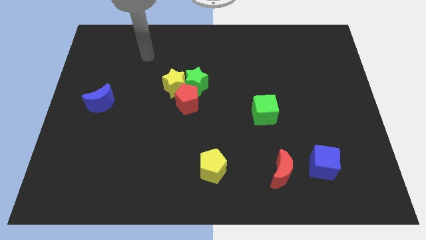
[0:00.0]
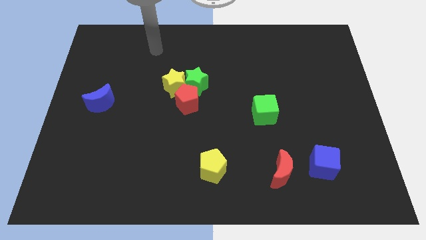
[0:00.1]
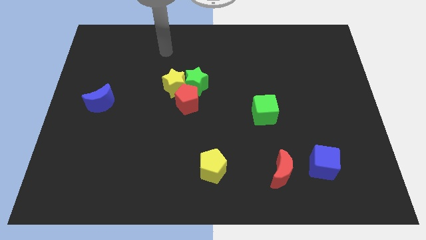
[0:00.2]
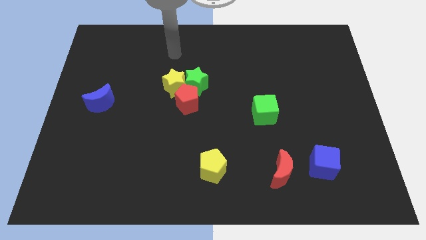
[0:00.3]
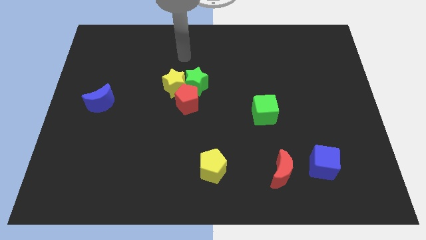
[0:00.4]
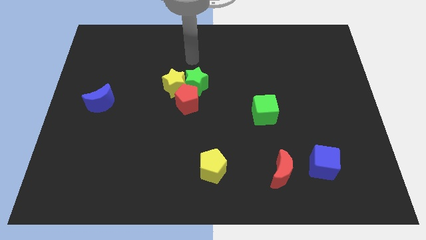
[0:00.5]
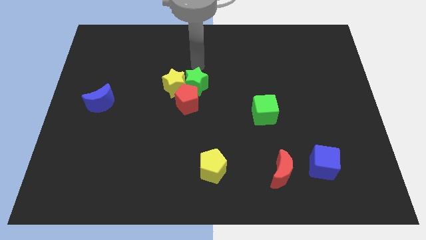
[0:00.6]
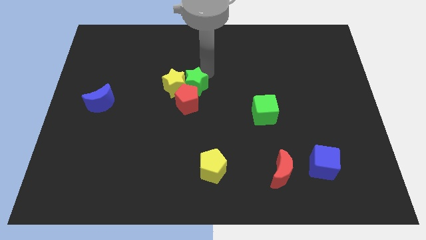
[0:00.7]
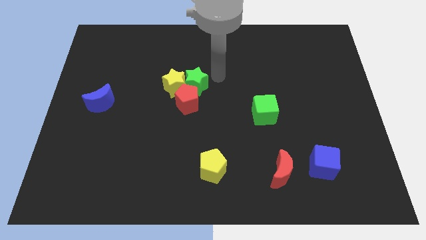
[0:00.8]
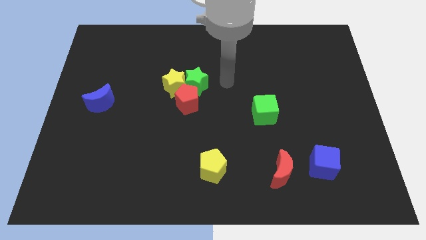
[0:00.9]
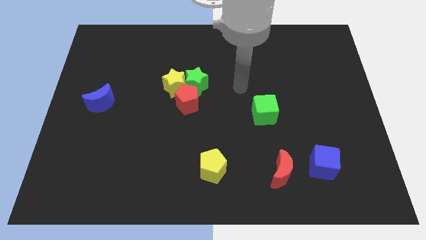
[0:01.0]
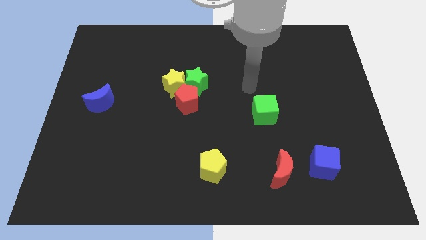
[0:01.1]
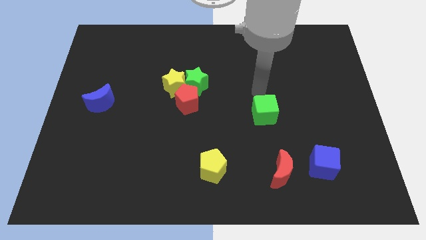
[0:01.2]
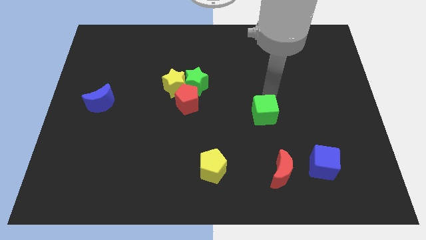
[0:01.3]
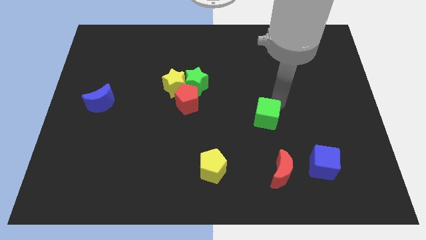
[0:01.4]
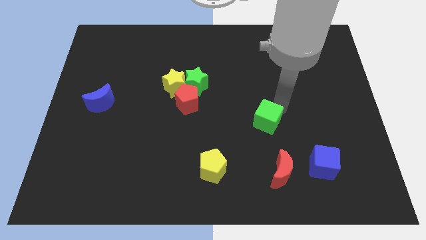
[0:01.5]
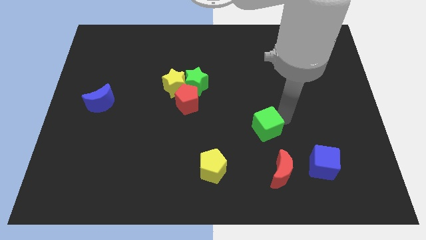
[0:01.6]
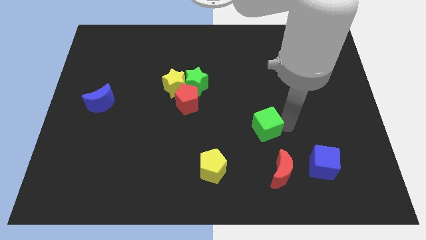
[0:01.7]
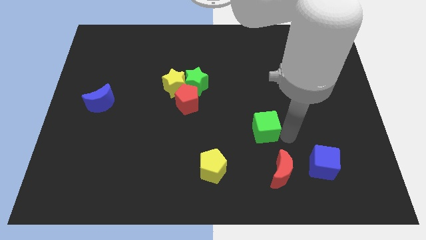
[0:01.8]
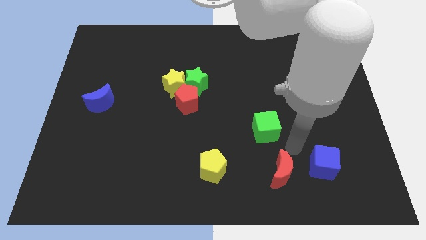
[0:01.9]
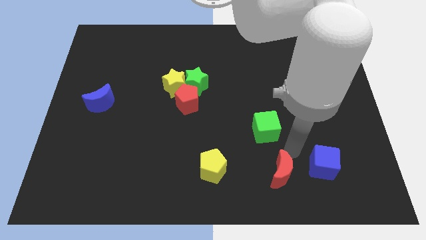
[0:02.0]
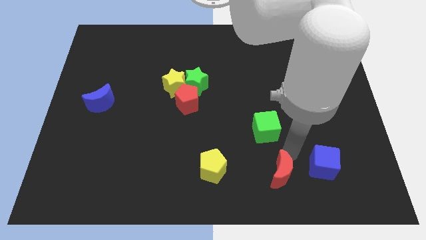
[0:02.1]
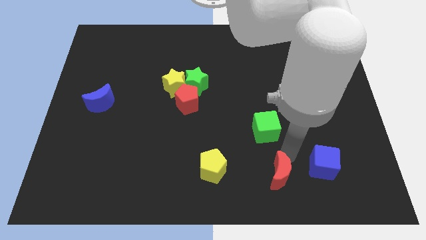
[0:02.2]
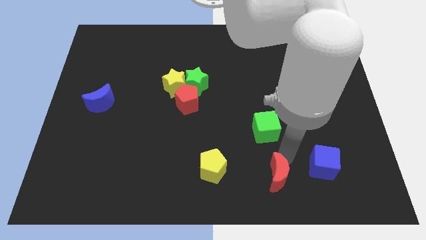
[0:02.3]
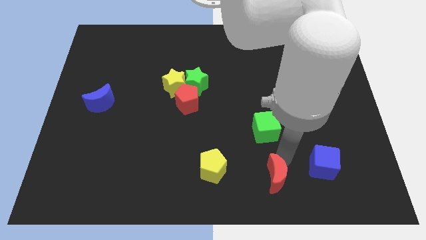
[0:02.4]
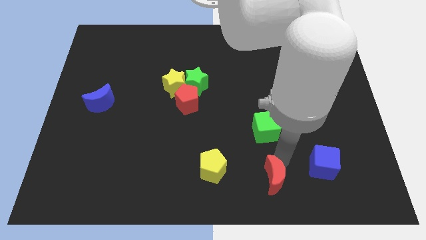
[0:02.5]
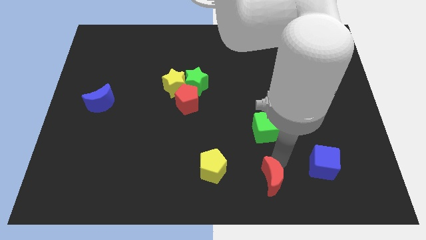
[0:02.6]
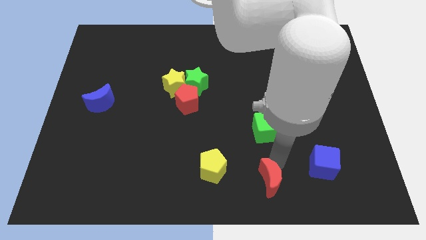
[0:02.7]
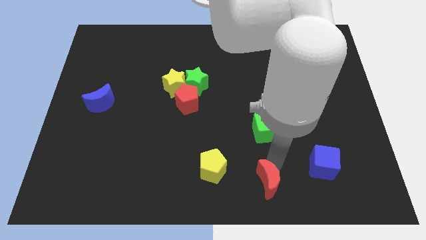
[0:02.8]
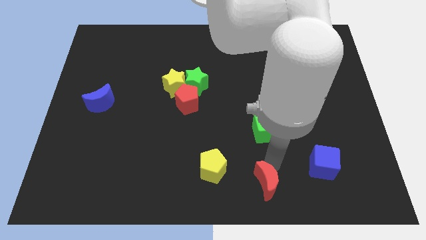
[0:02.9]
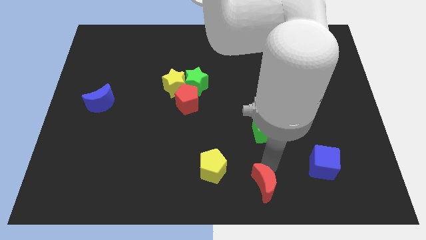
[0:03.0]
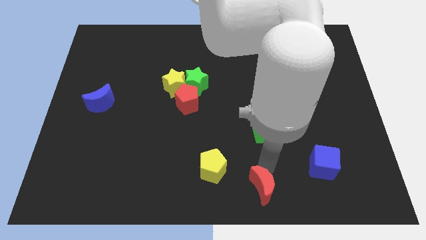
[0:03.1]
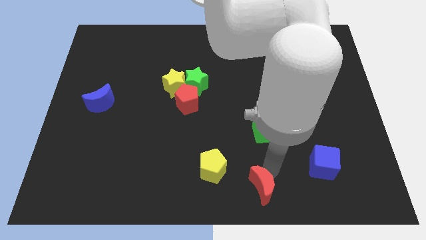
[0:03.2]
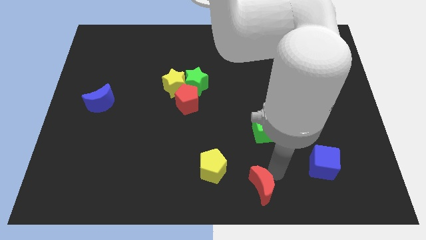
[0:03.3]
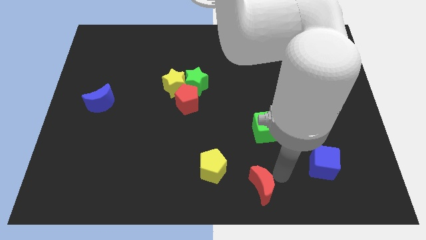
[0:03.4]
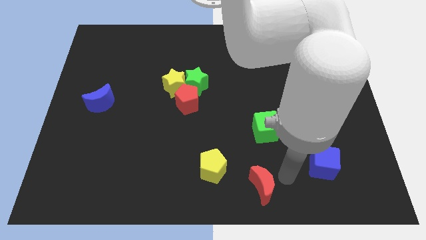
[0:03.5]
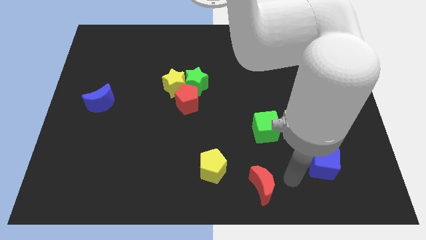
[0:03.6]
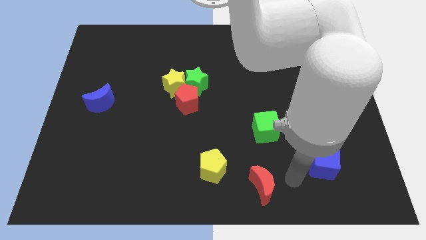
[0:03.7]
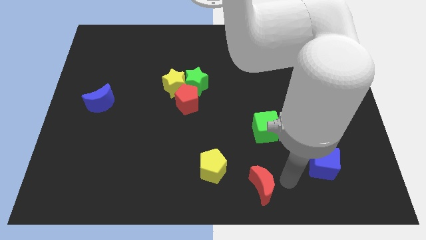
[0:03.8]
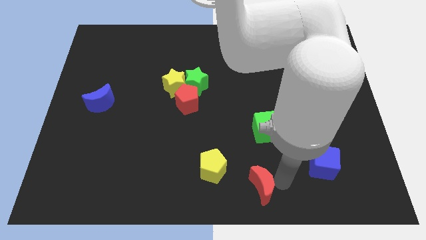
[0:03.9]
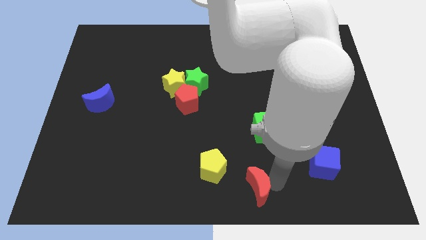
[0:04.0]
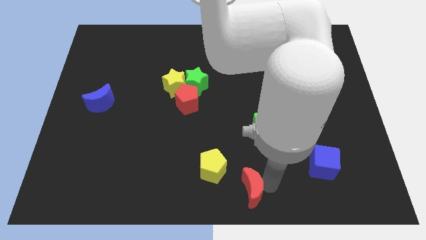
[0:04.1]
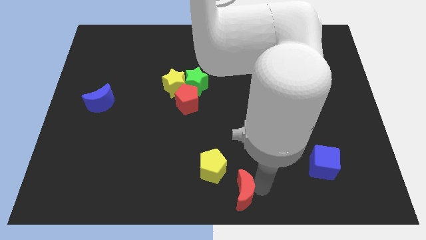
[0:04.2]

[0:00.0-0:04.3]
slightly move the red moon to the left

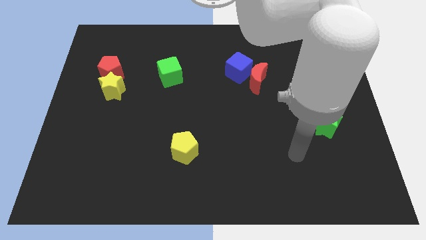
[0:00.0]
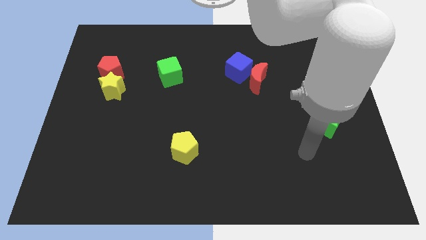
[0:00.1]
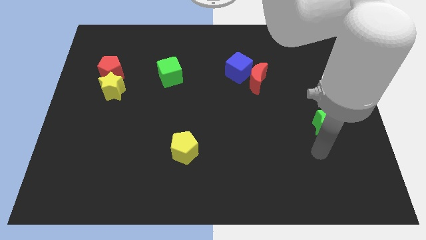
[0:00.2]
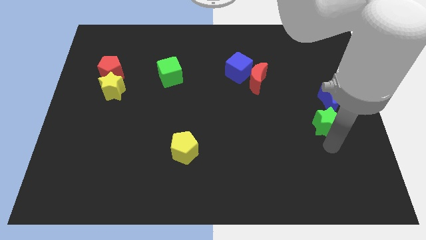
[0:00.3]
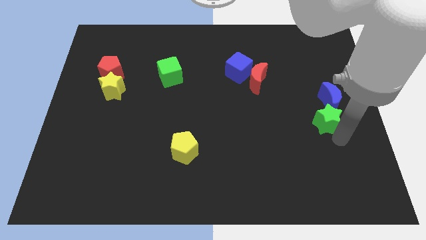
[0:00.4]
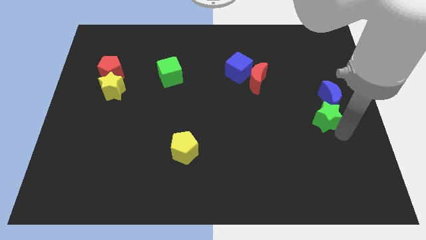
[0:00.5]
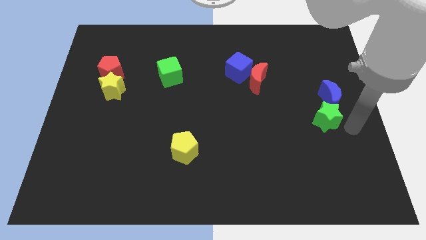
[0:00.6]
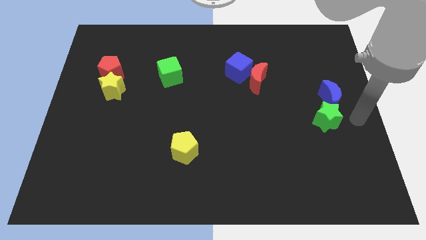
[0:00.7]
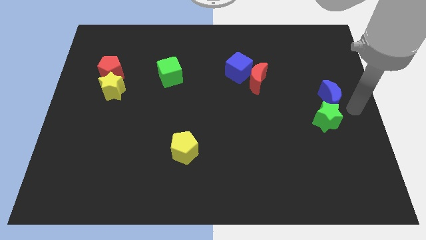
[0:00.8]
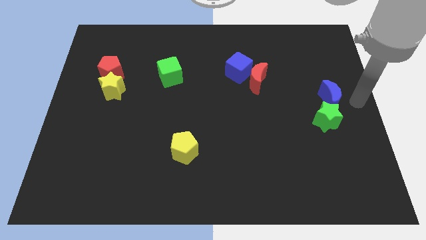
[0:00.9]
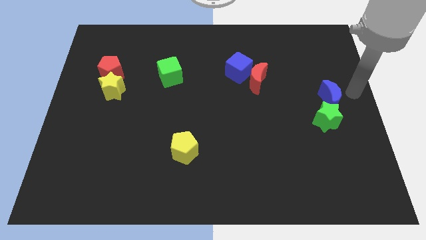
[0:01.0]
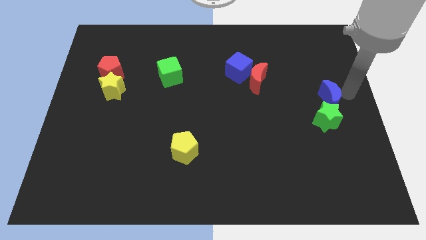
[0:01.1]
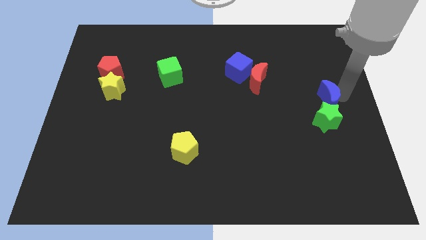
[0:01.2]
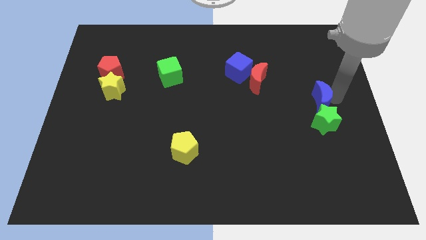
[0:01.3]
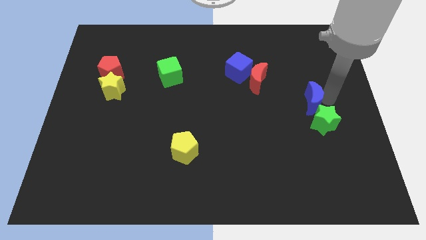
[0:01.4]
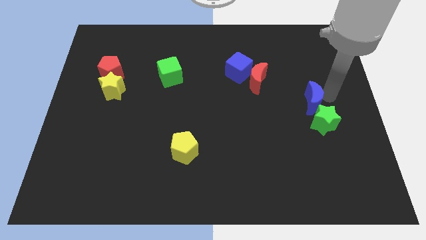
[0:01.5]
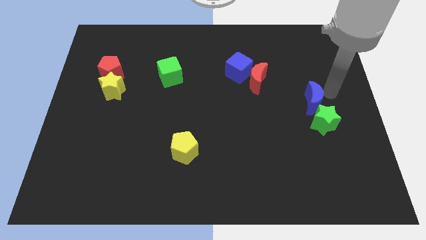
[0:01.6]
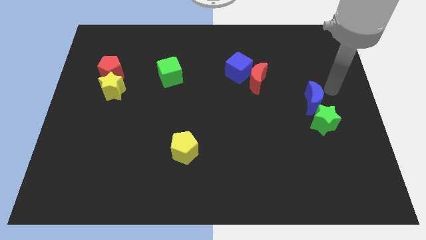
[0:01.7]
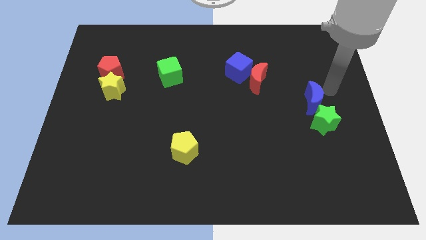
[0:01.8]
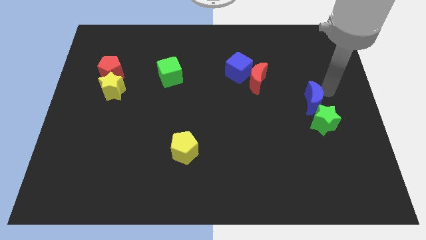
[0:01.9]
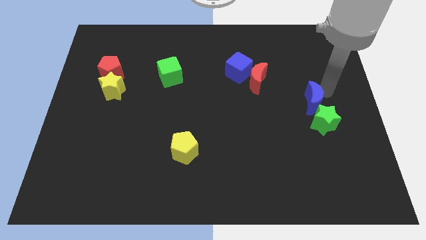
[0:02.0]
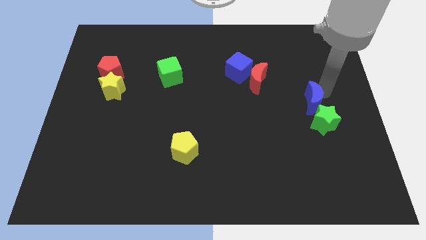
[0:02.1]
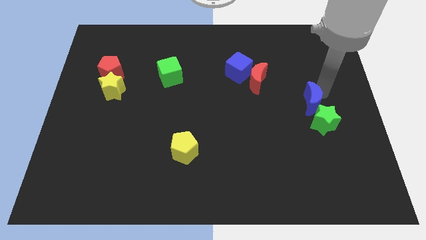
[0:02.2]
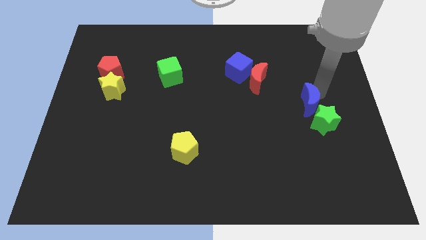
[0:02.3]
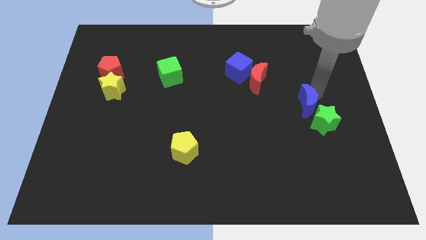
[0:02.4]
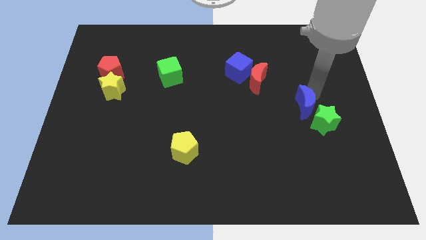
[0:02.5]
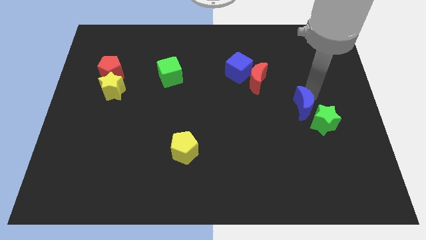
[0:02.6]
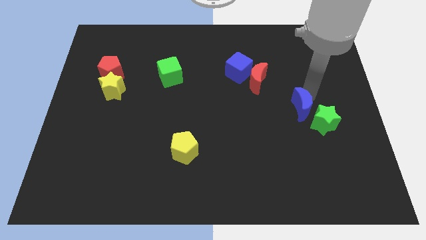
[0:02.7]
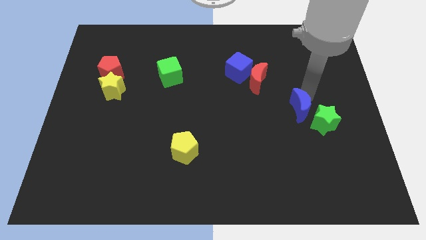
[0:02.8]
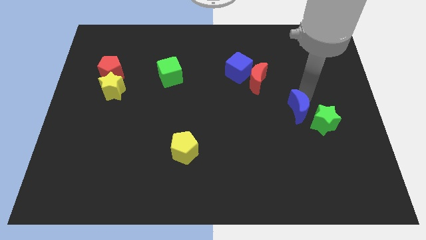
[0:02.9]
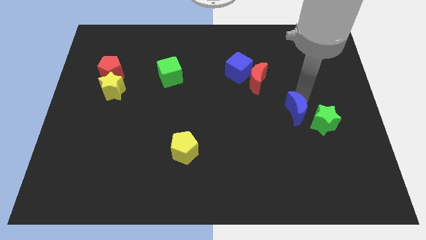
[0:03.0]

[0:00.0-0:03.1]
move the blue moon somewhat down and then left
